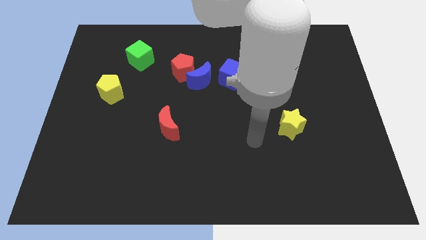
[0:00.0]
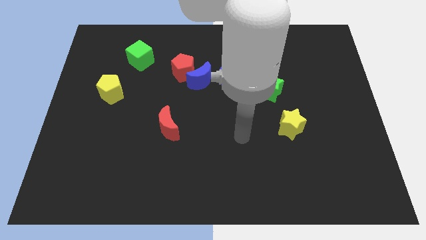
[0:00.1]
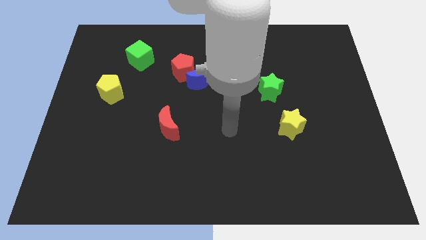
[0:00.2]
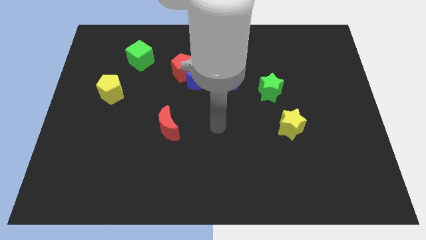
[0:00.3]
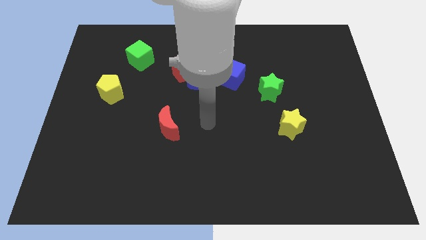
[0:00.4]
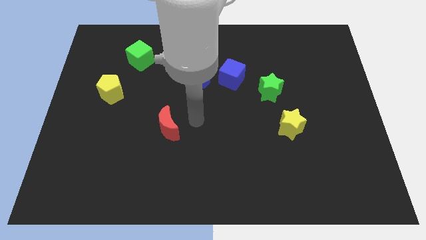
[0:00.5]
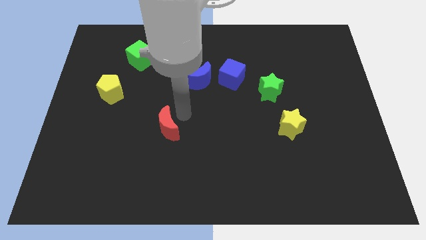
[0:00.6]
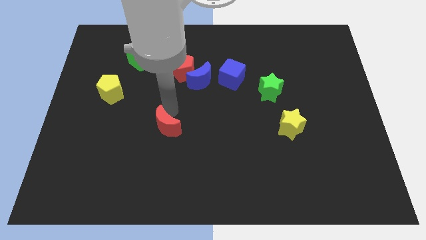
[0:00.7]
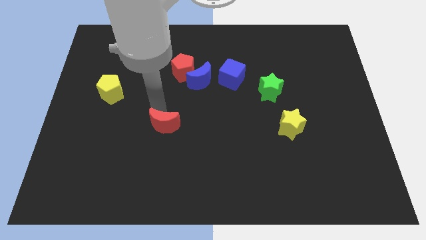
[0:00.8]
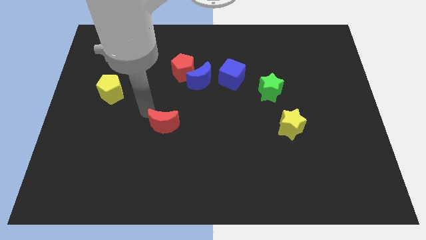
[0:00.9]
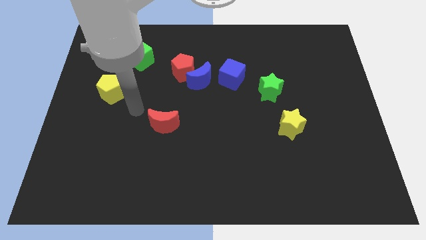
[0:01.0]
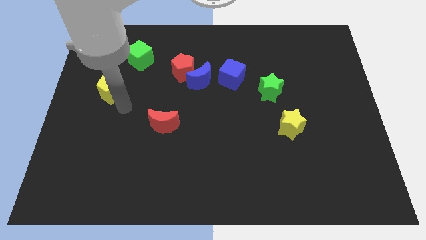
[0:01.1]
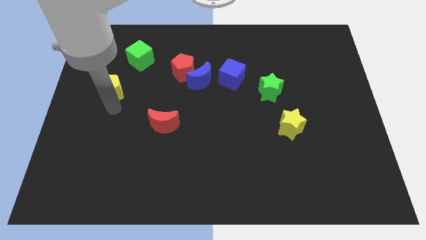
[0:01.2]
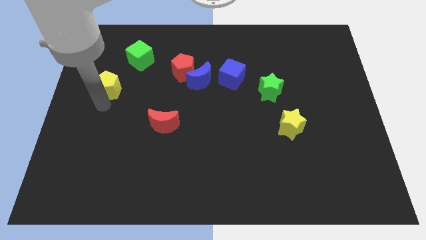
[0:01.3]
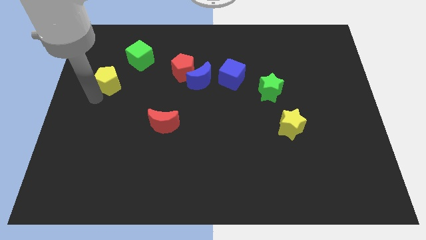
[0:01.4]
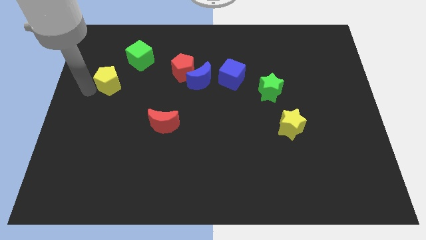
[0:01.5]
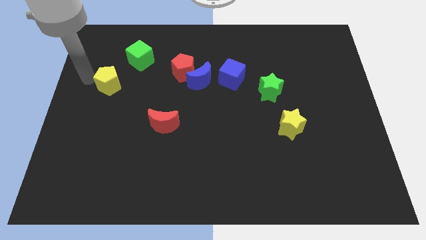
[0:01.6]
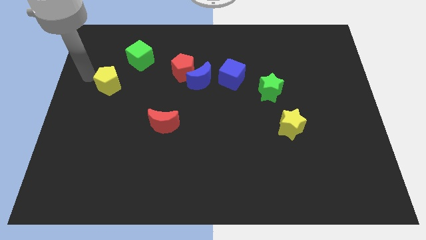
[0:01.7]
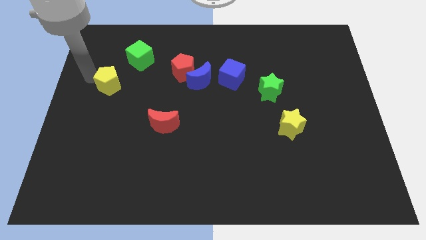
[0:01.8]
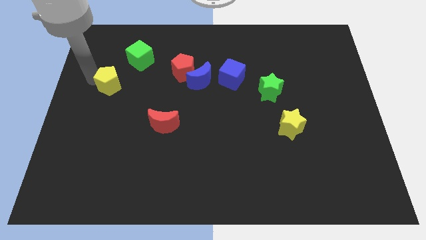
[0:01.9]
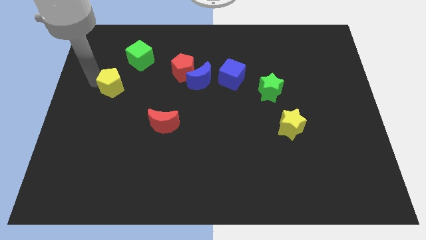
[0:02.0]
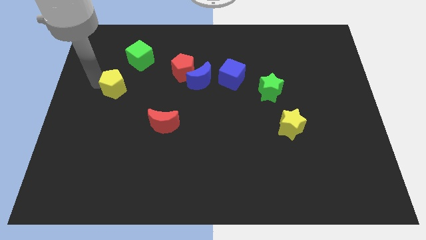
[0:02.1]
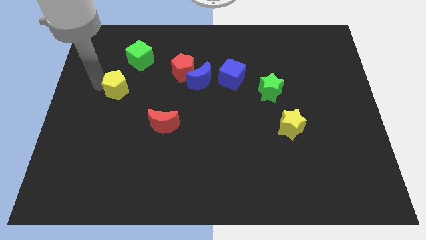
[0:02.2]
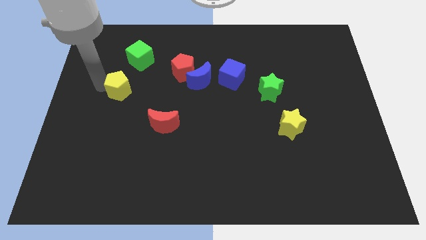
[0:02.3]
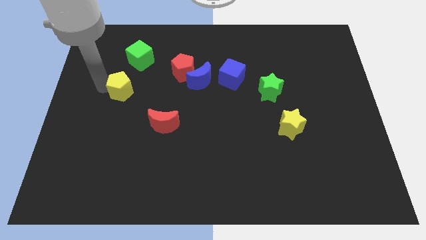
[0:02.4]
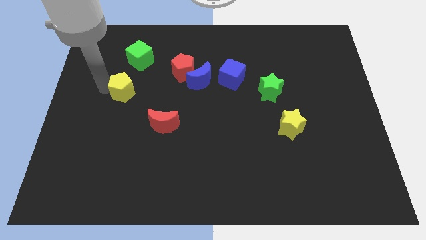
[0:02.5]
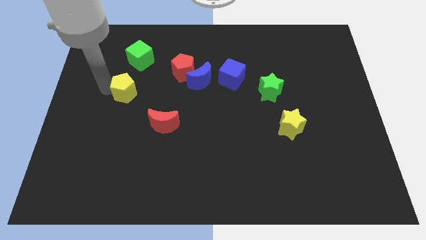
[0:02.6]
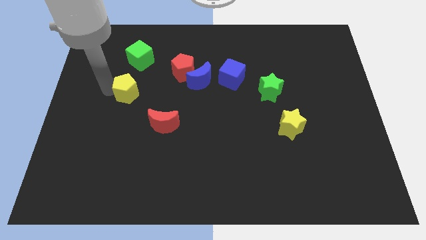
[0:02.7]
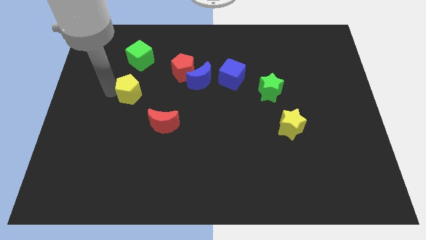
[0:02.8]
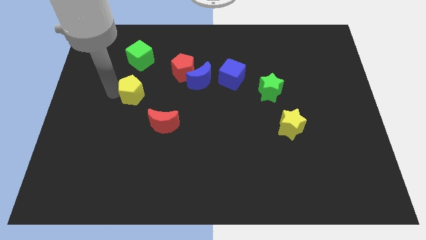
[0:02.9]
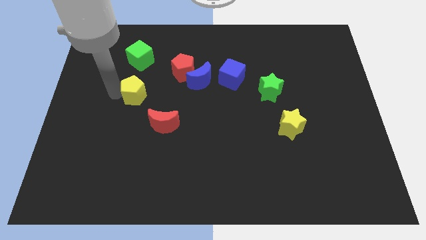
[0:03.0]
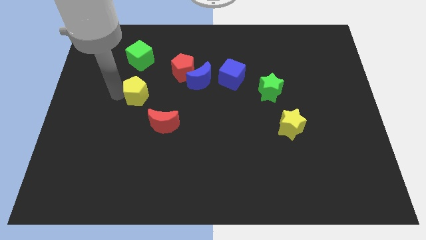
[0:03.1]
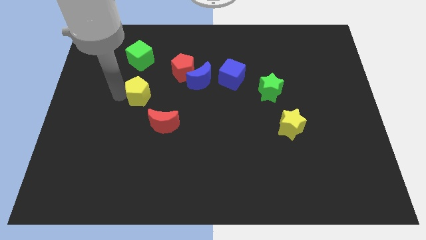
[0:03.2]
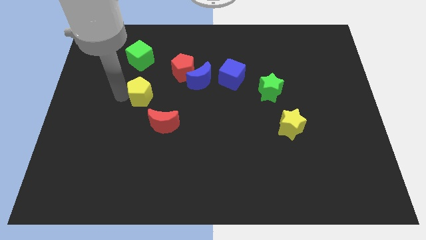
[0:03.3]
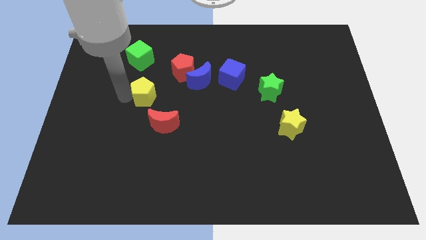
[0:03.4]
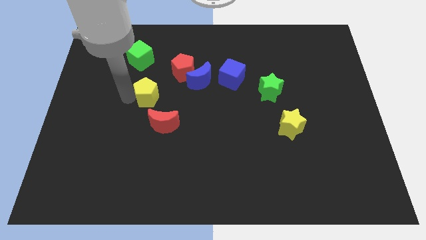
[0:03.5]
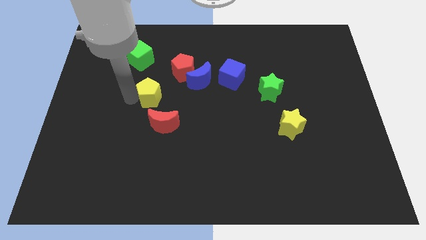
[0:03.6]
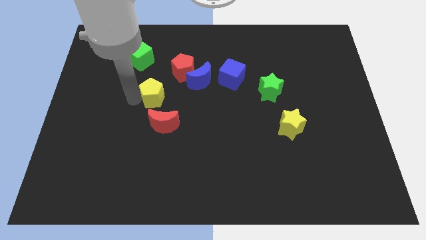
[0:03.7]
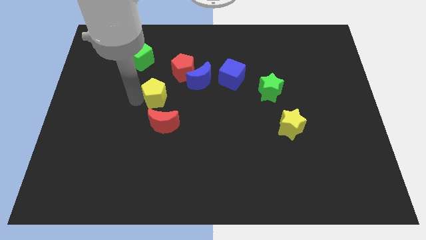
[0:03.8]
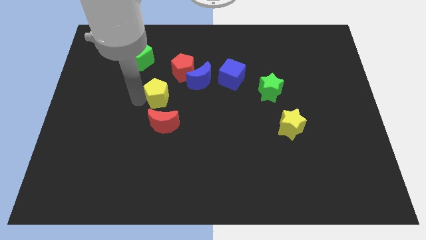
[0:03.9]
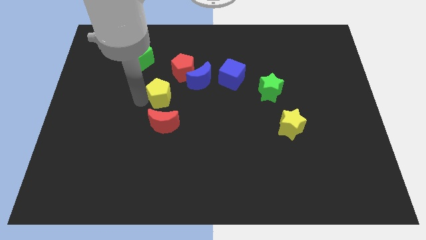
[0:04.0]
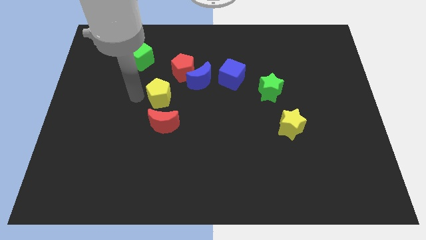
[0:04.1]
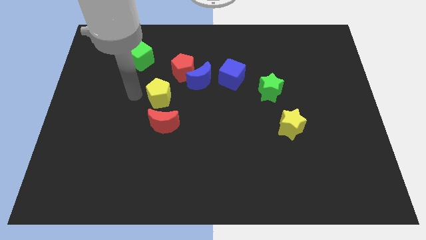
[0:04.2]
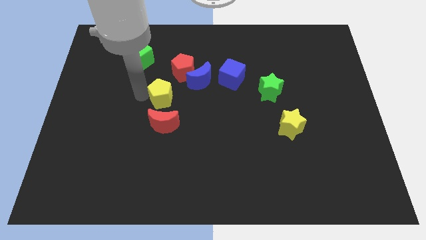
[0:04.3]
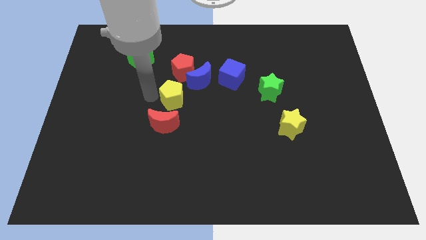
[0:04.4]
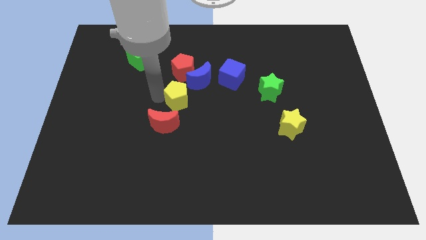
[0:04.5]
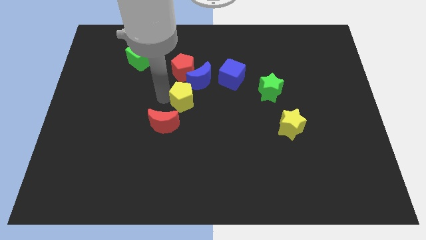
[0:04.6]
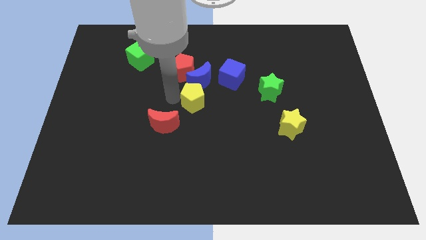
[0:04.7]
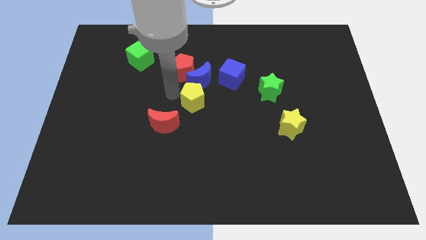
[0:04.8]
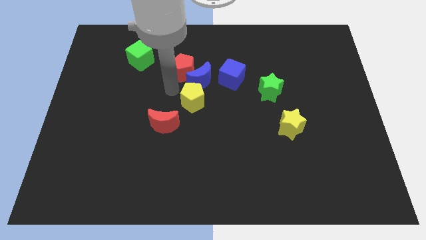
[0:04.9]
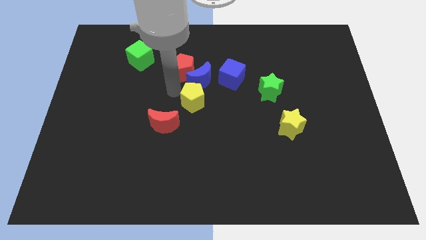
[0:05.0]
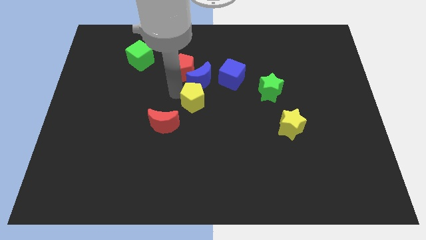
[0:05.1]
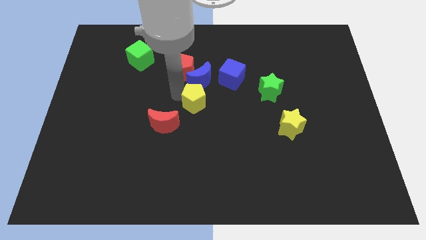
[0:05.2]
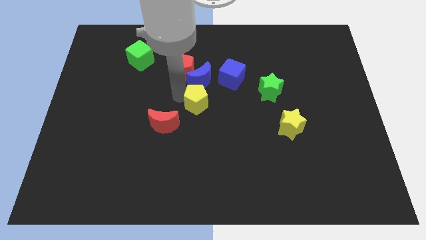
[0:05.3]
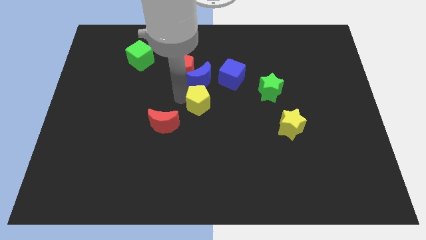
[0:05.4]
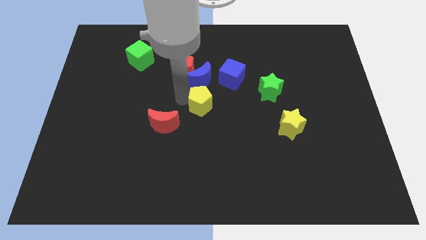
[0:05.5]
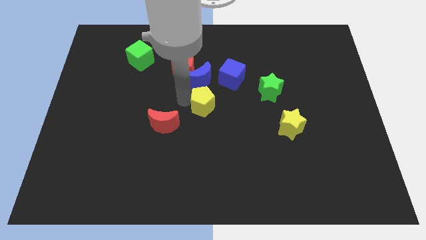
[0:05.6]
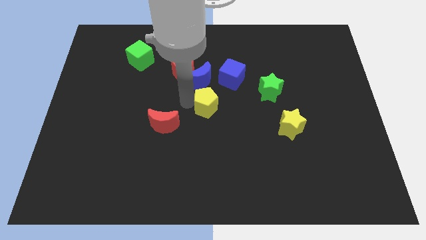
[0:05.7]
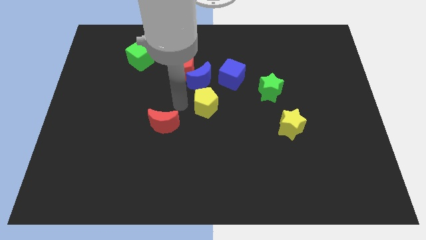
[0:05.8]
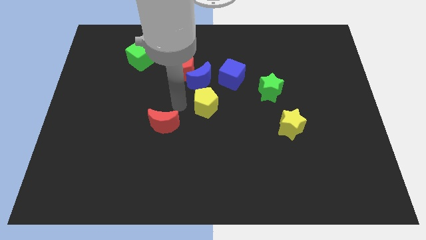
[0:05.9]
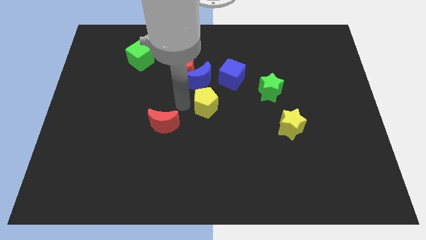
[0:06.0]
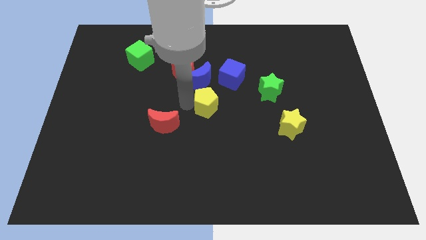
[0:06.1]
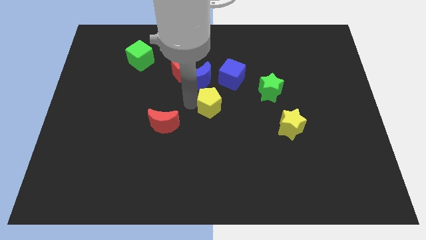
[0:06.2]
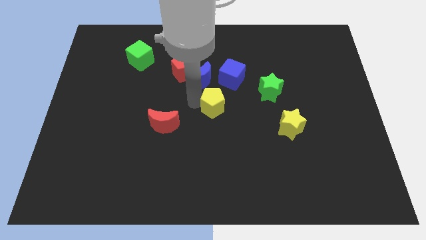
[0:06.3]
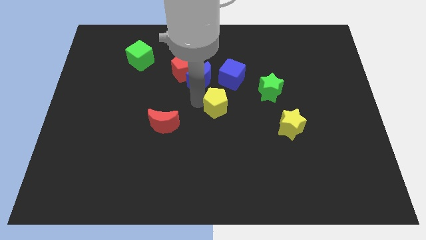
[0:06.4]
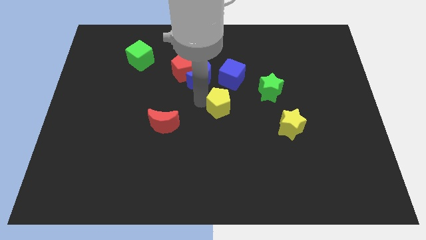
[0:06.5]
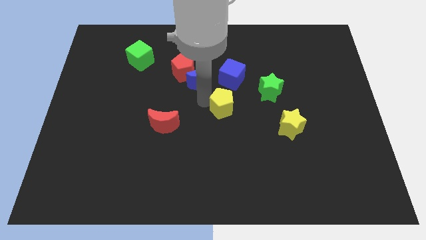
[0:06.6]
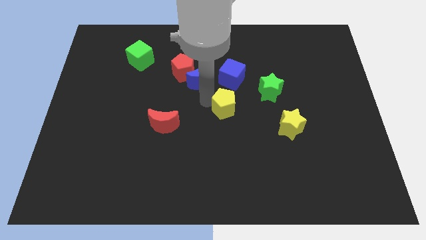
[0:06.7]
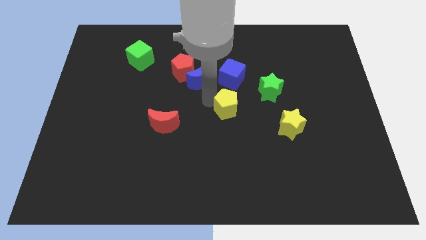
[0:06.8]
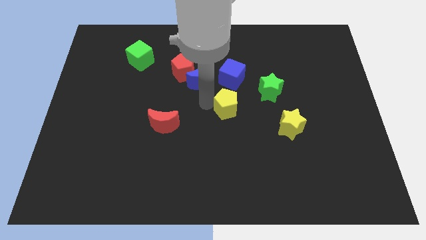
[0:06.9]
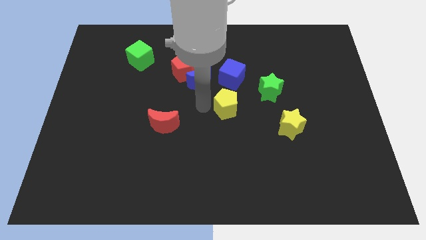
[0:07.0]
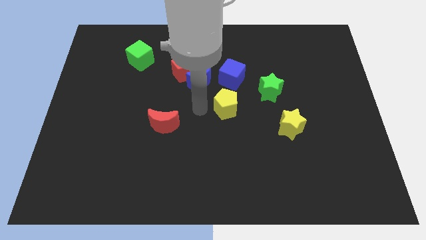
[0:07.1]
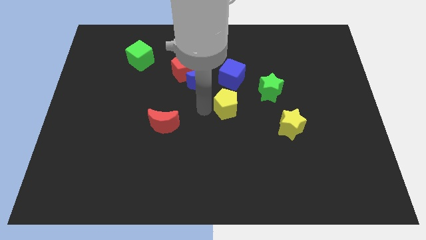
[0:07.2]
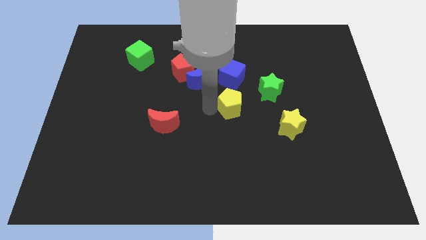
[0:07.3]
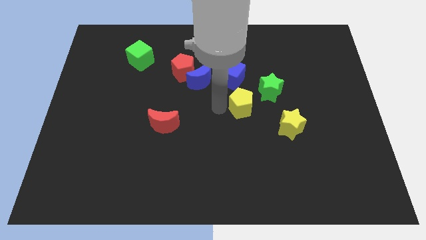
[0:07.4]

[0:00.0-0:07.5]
push the yellow pentagon to the top left side of the yellow star
